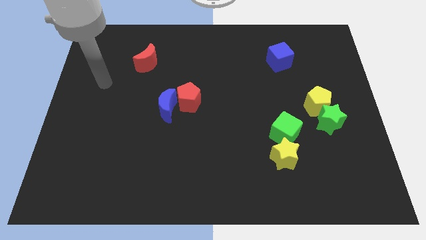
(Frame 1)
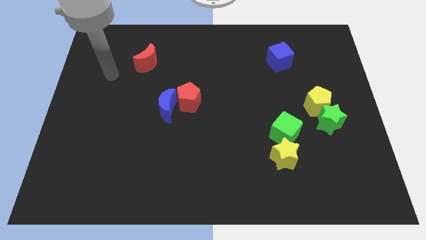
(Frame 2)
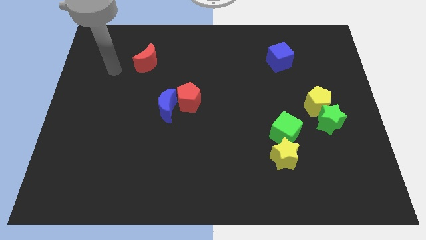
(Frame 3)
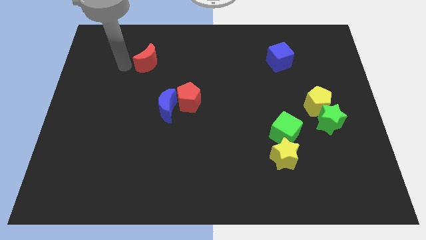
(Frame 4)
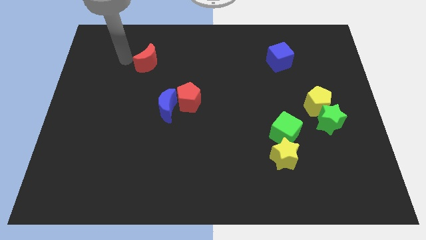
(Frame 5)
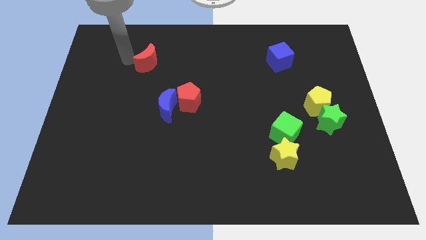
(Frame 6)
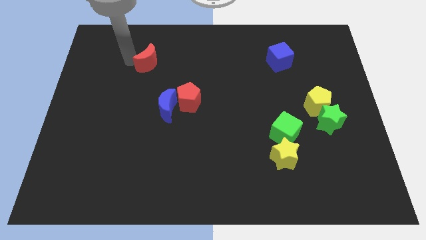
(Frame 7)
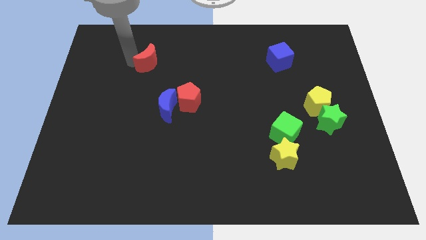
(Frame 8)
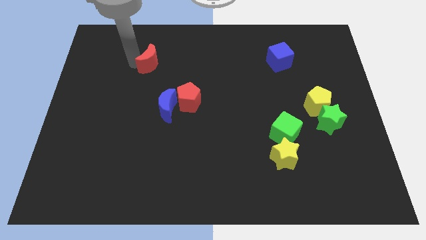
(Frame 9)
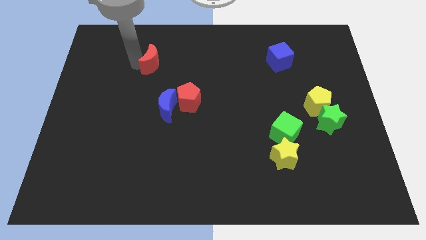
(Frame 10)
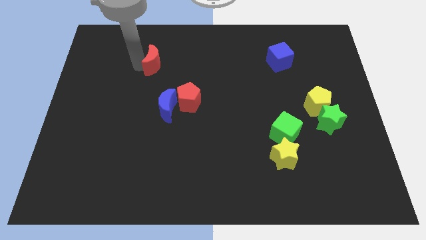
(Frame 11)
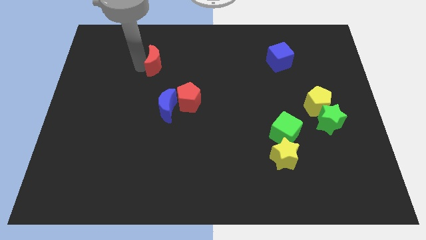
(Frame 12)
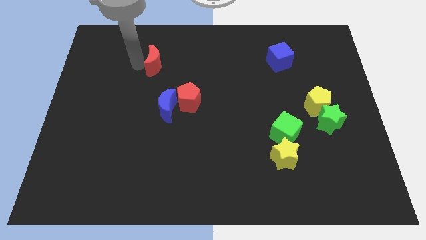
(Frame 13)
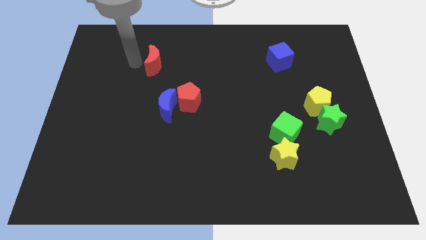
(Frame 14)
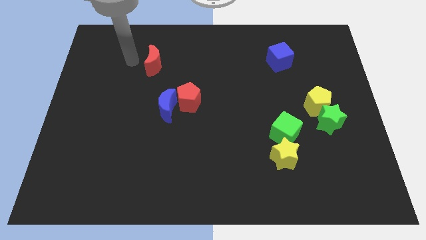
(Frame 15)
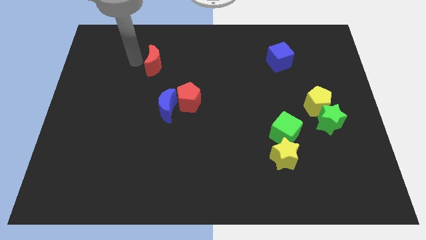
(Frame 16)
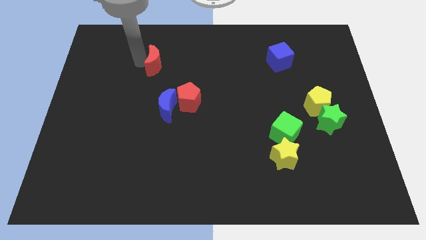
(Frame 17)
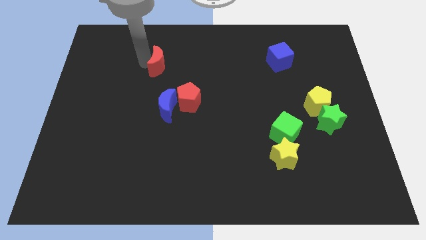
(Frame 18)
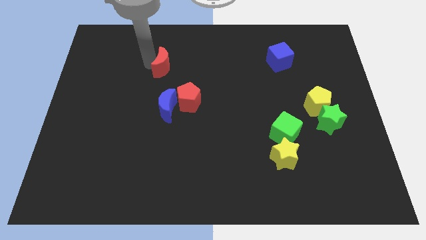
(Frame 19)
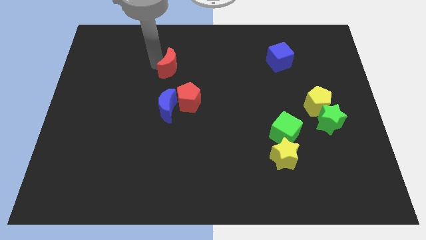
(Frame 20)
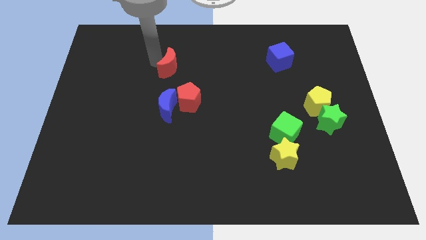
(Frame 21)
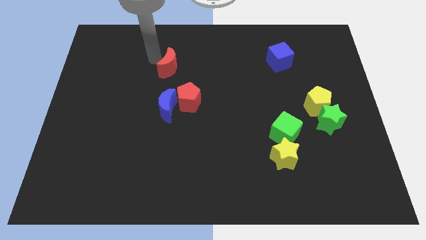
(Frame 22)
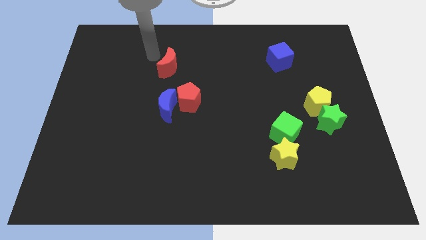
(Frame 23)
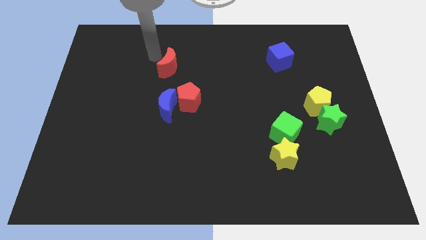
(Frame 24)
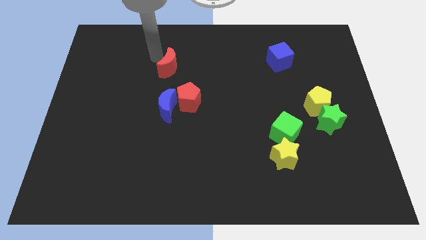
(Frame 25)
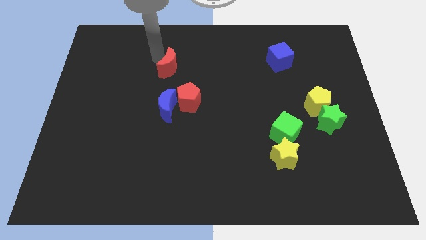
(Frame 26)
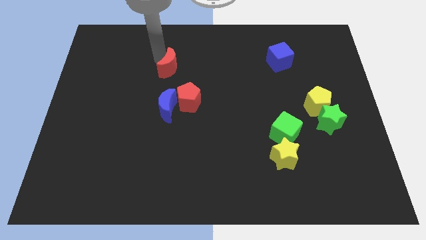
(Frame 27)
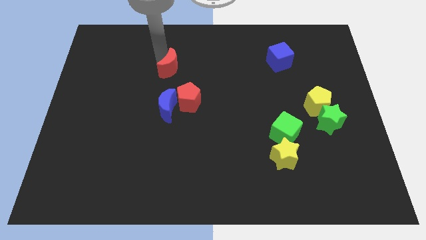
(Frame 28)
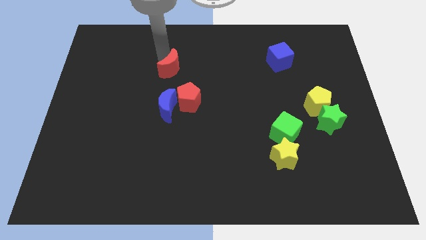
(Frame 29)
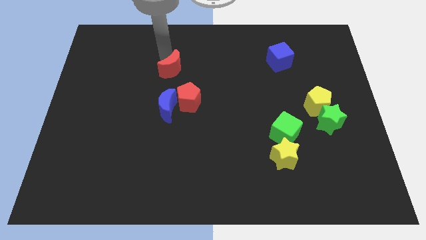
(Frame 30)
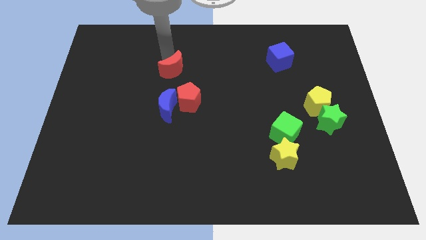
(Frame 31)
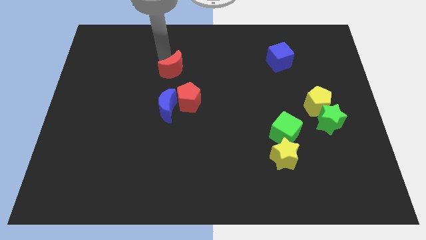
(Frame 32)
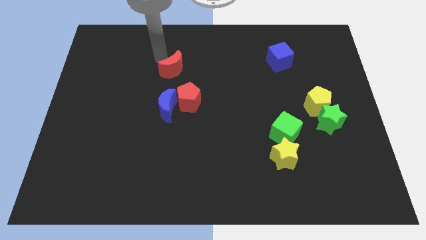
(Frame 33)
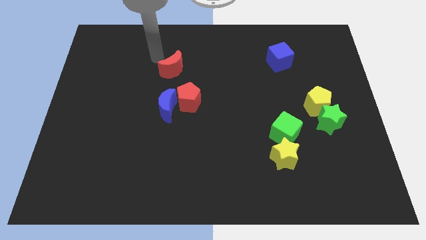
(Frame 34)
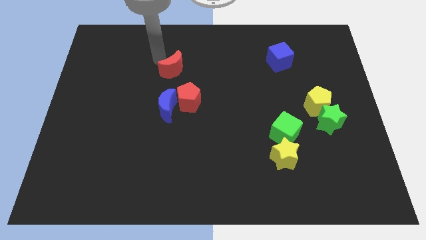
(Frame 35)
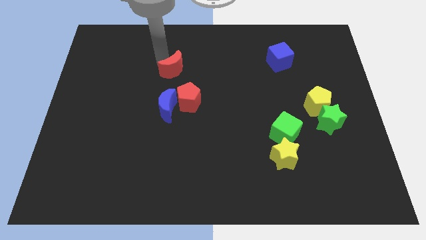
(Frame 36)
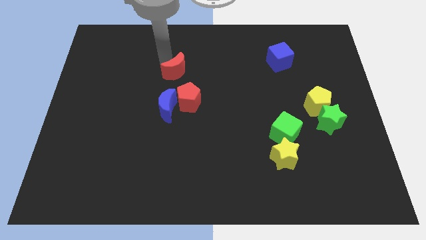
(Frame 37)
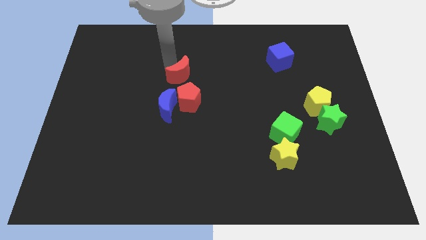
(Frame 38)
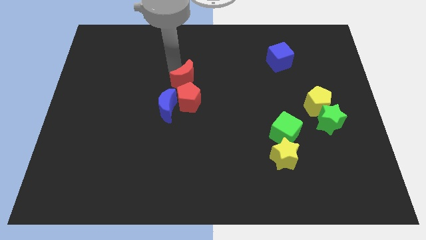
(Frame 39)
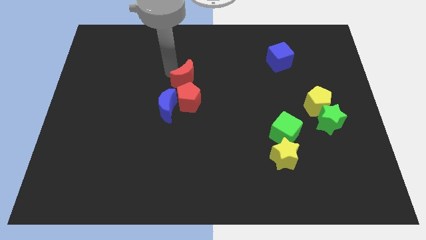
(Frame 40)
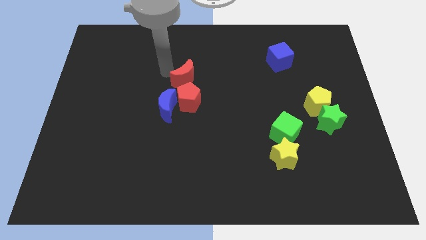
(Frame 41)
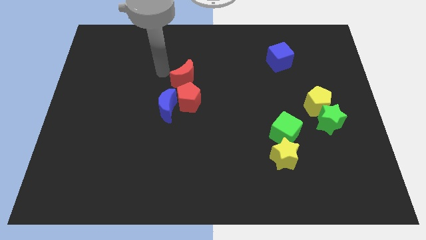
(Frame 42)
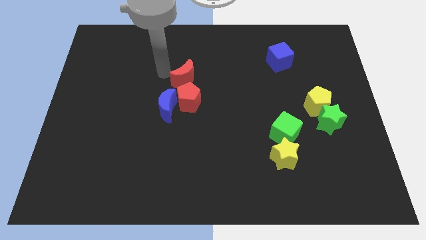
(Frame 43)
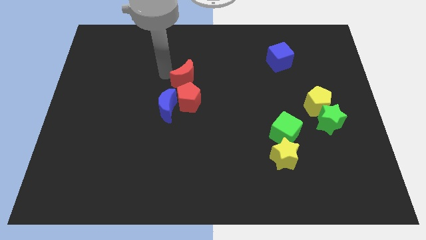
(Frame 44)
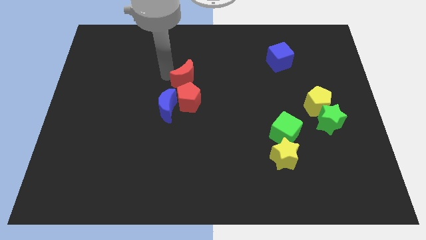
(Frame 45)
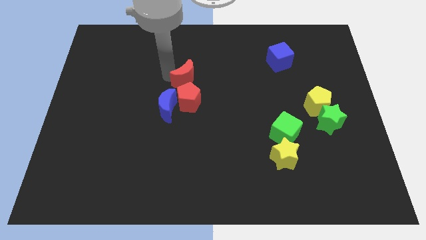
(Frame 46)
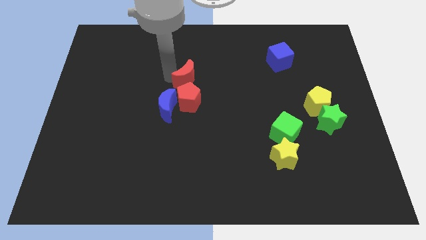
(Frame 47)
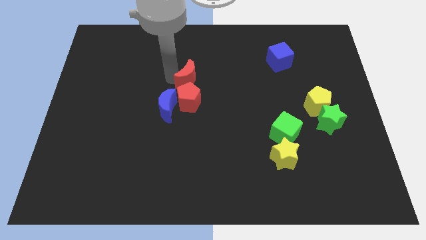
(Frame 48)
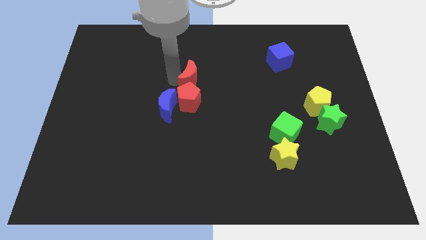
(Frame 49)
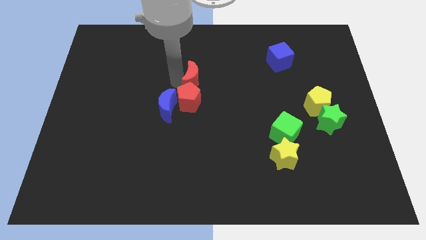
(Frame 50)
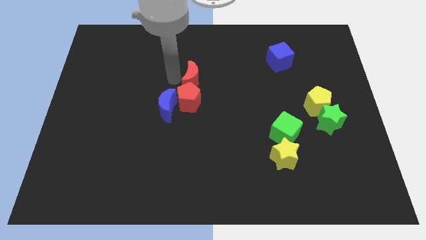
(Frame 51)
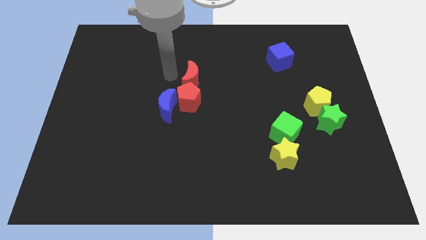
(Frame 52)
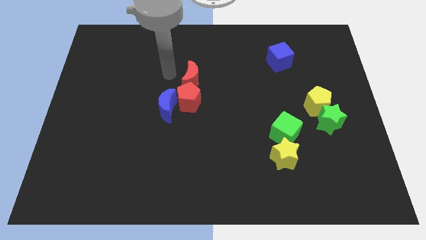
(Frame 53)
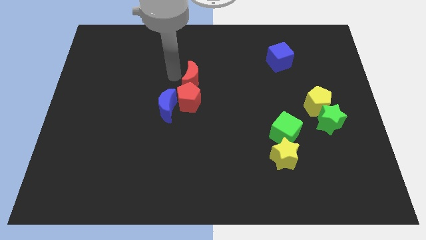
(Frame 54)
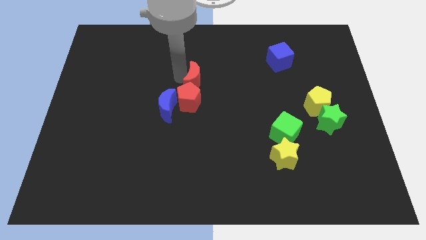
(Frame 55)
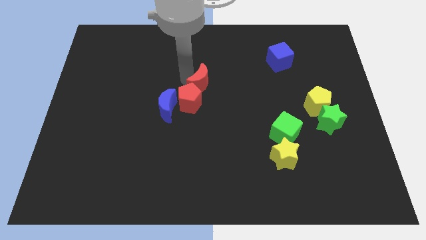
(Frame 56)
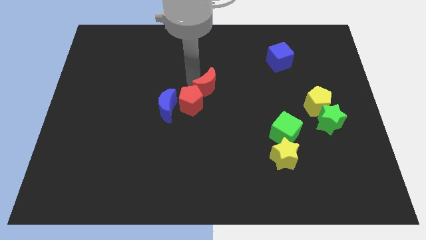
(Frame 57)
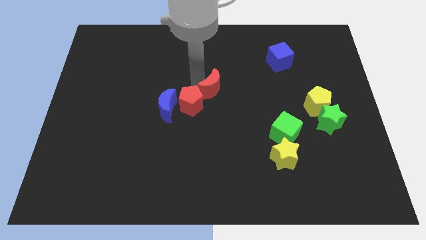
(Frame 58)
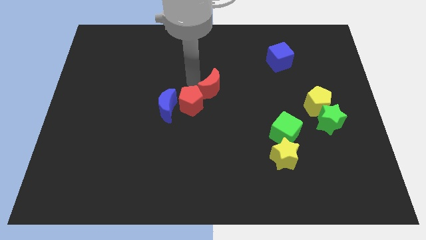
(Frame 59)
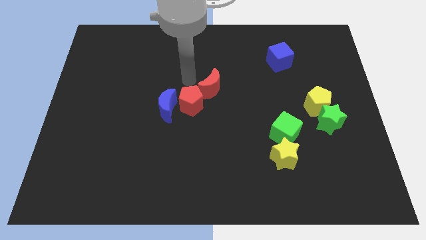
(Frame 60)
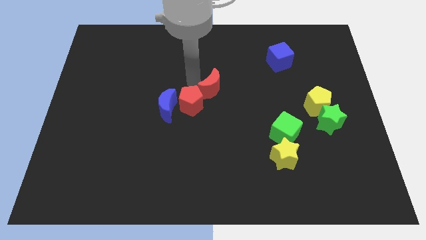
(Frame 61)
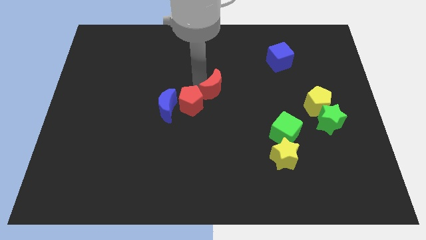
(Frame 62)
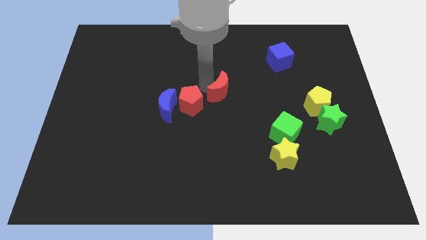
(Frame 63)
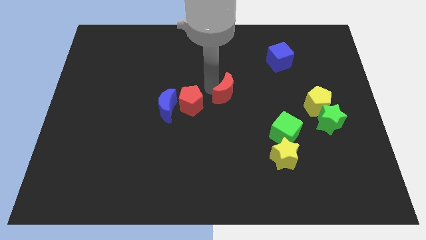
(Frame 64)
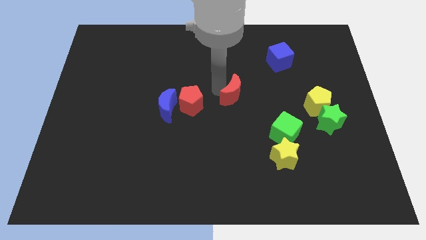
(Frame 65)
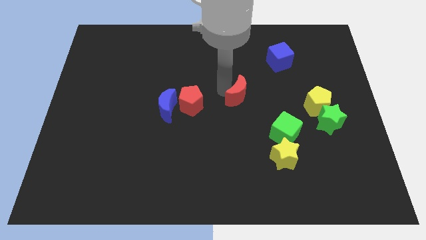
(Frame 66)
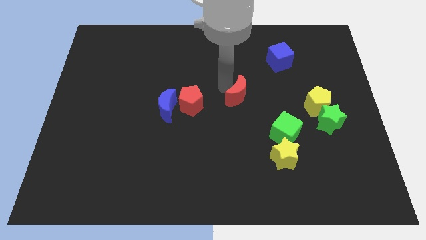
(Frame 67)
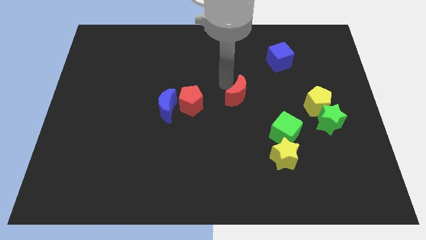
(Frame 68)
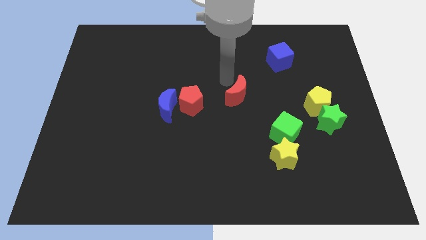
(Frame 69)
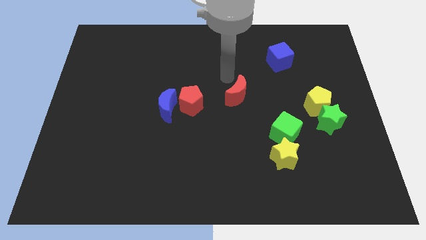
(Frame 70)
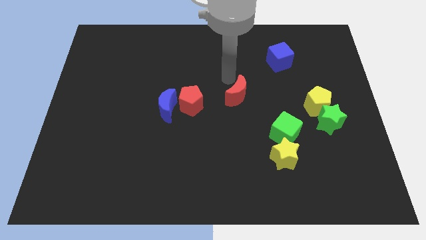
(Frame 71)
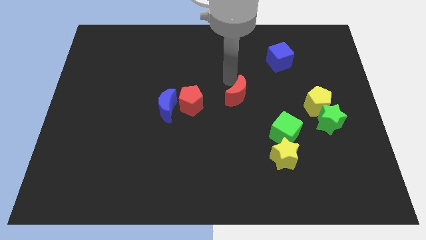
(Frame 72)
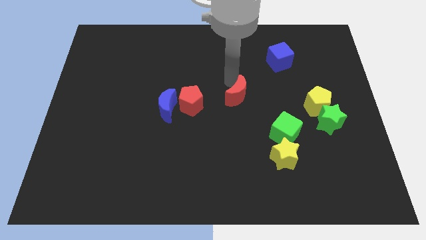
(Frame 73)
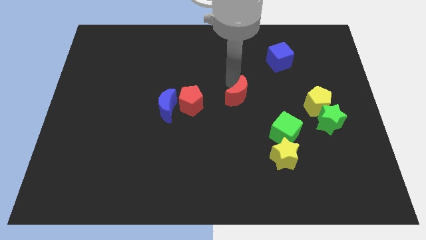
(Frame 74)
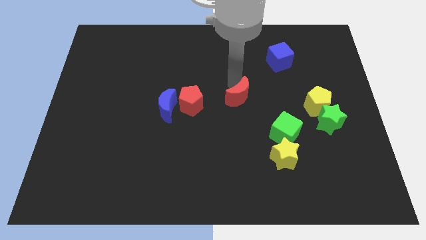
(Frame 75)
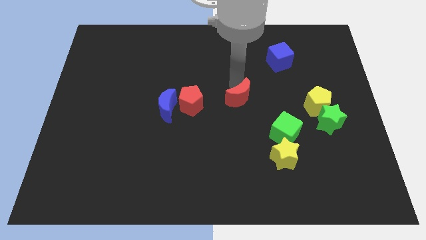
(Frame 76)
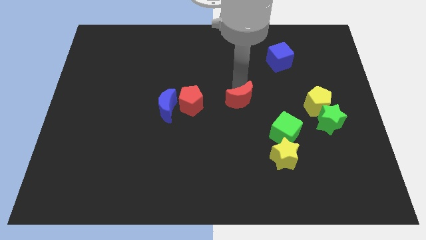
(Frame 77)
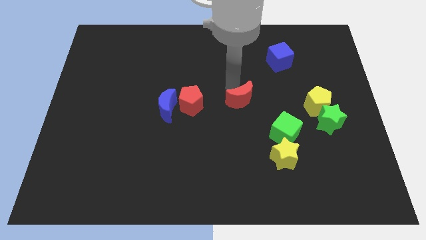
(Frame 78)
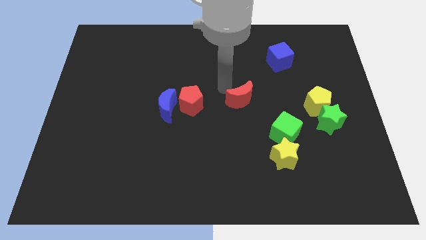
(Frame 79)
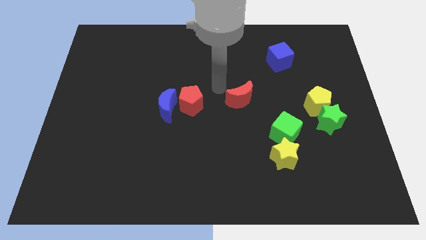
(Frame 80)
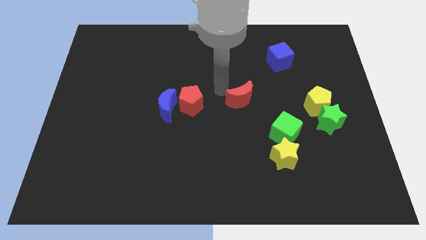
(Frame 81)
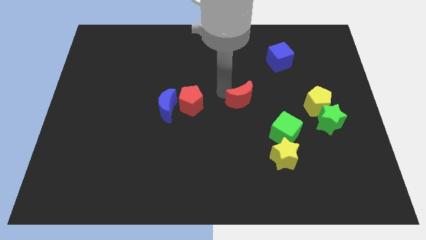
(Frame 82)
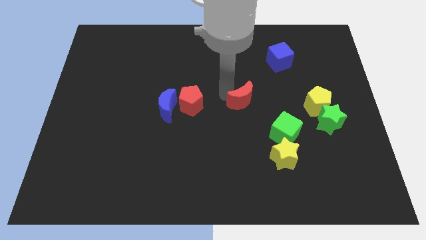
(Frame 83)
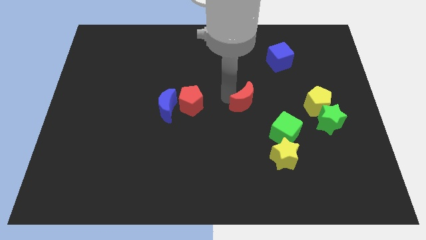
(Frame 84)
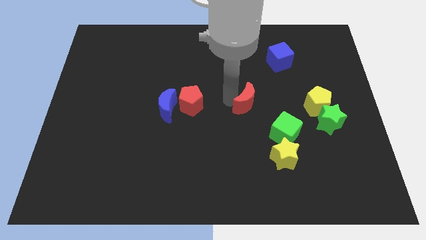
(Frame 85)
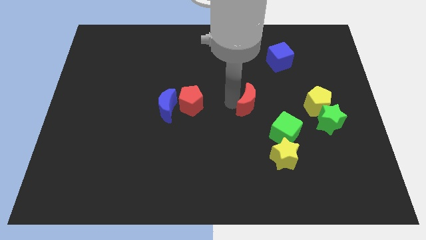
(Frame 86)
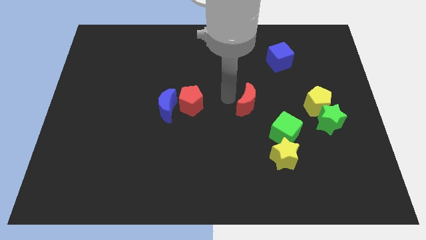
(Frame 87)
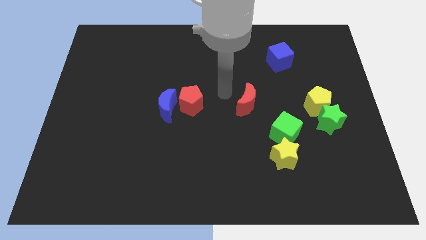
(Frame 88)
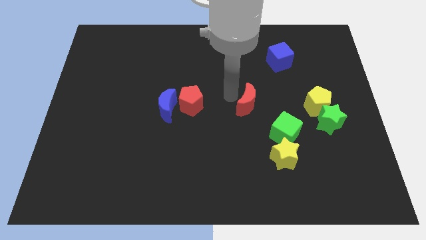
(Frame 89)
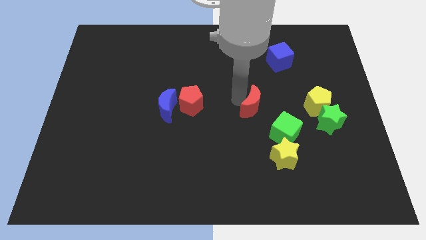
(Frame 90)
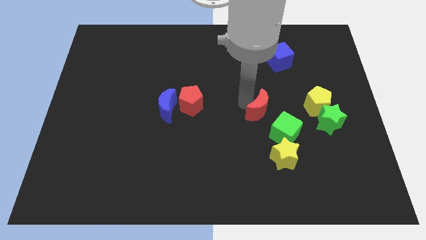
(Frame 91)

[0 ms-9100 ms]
slide the red moon to the top of the yellow star
